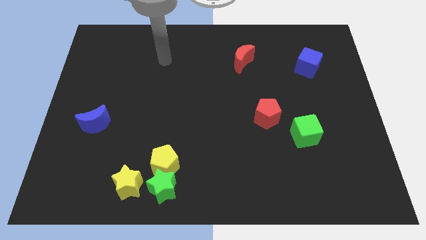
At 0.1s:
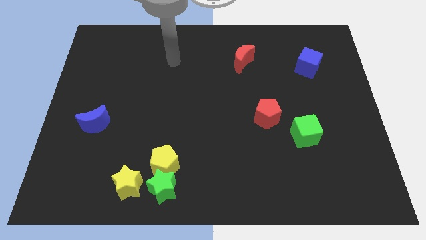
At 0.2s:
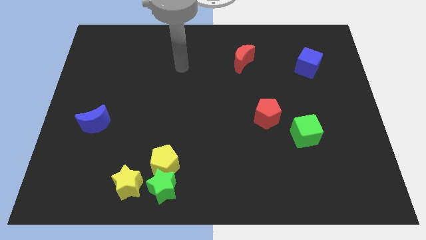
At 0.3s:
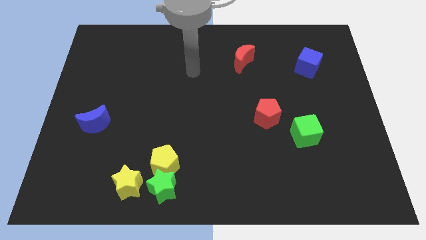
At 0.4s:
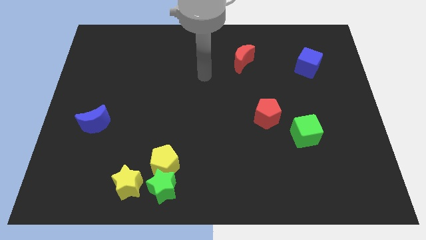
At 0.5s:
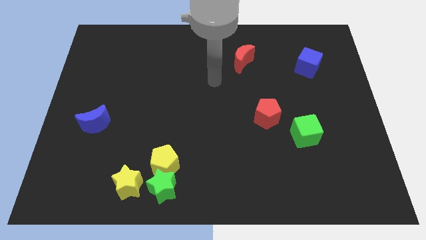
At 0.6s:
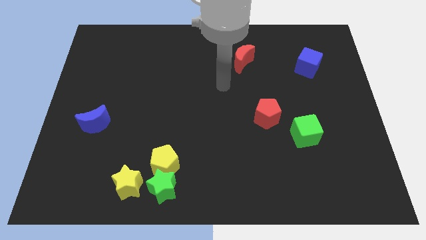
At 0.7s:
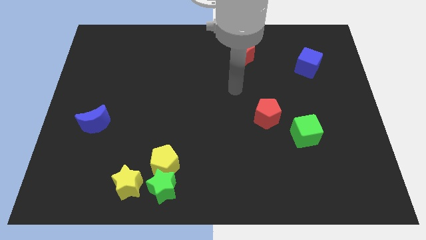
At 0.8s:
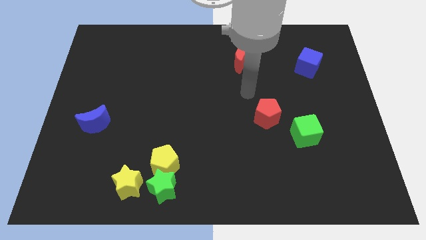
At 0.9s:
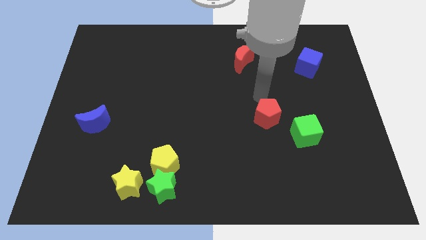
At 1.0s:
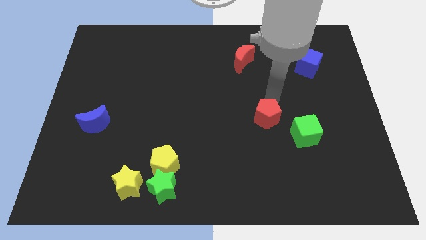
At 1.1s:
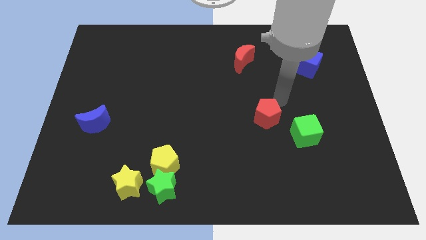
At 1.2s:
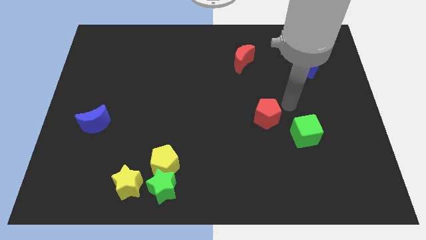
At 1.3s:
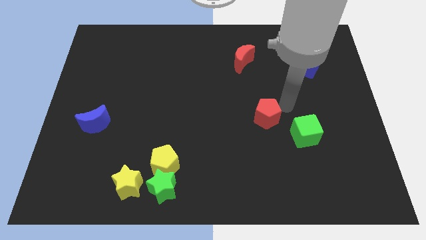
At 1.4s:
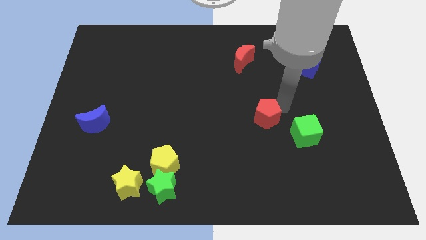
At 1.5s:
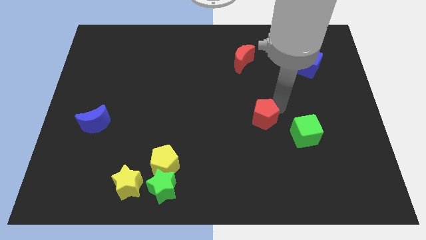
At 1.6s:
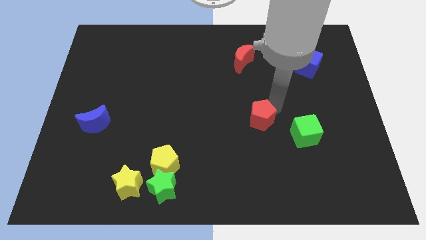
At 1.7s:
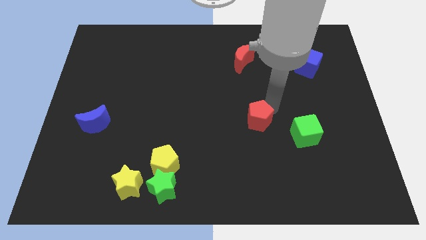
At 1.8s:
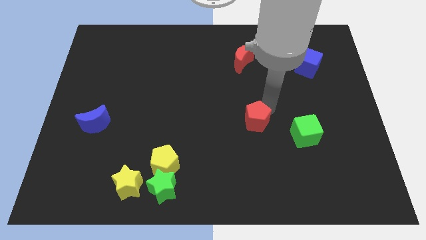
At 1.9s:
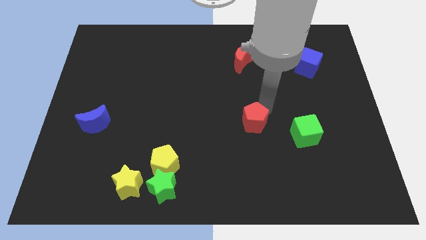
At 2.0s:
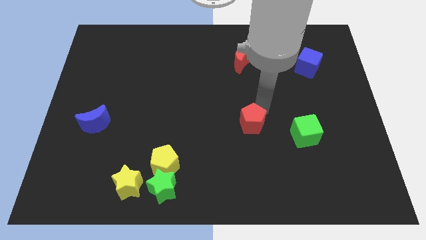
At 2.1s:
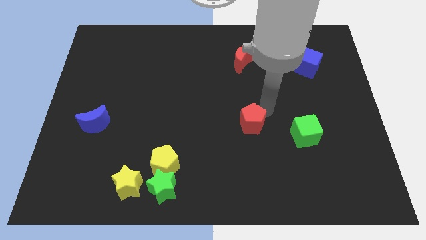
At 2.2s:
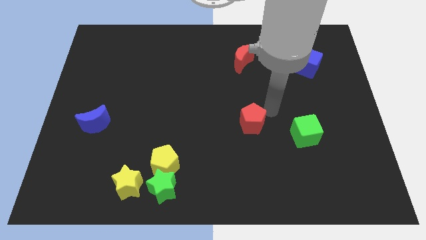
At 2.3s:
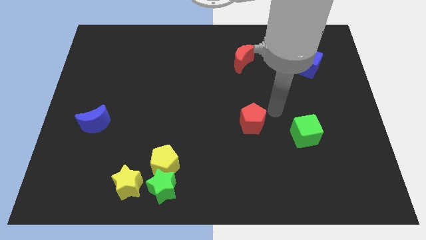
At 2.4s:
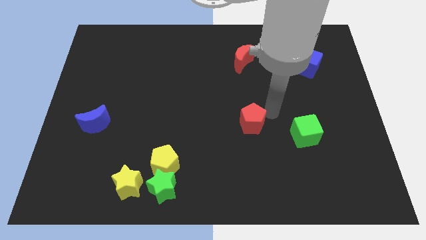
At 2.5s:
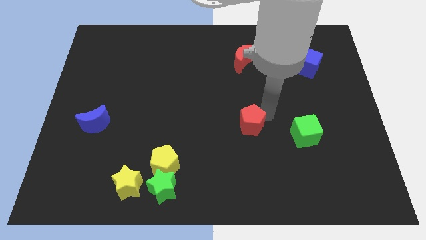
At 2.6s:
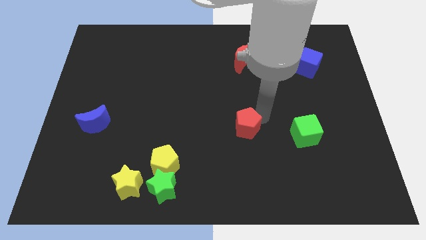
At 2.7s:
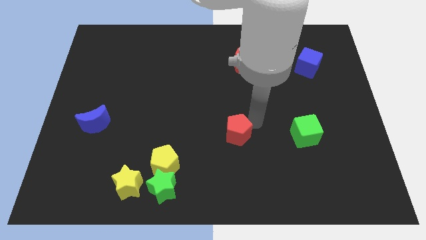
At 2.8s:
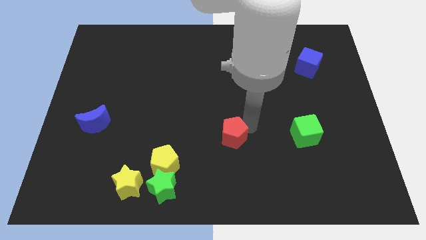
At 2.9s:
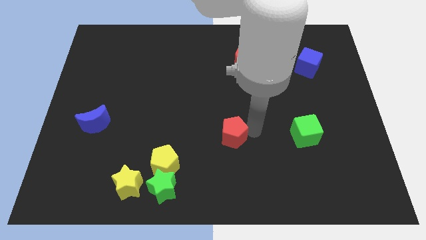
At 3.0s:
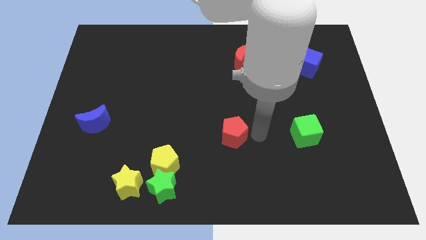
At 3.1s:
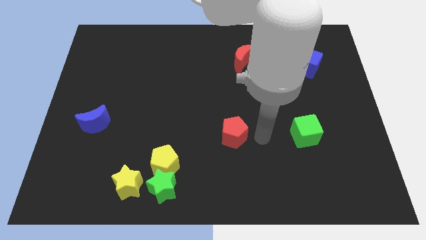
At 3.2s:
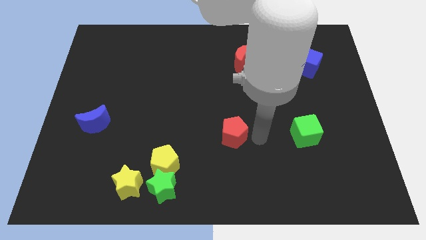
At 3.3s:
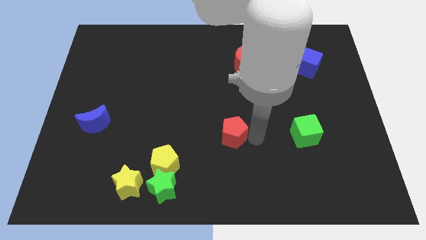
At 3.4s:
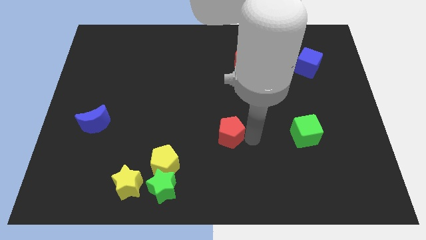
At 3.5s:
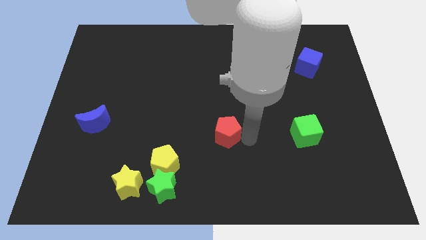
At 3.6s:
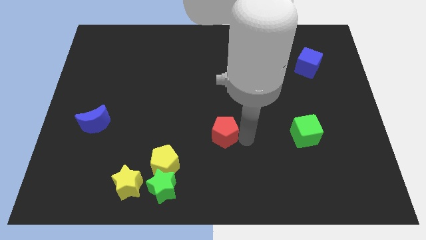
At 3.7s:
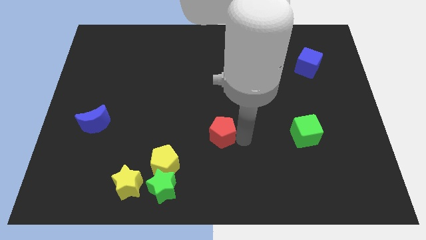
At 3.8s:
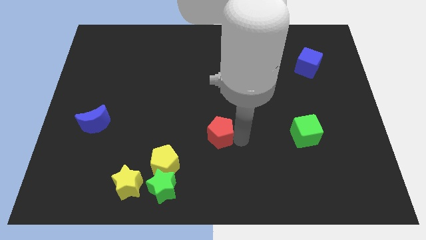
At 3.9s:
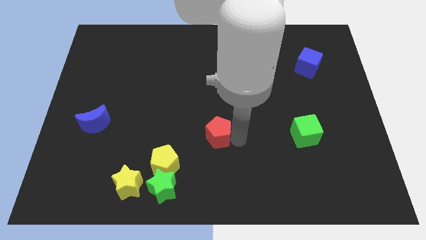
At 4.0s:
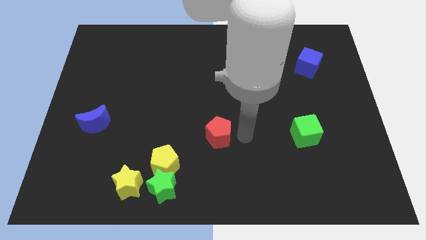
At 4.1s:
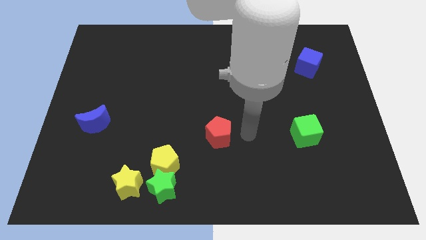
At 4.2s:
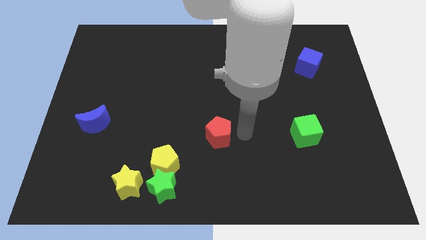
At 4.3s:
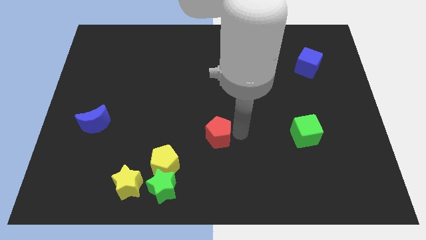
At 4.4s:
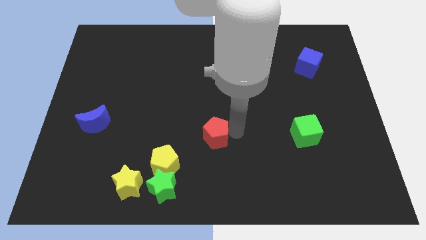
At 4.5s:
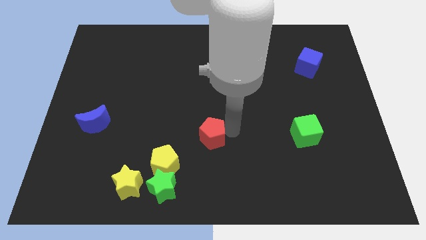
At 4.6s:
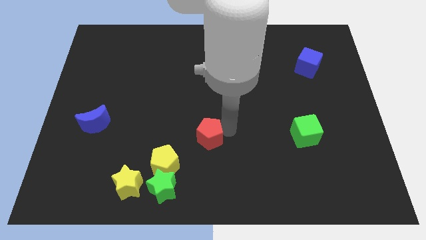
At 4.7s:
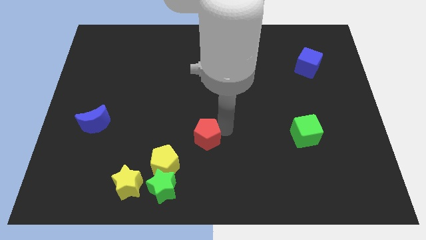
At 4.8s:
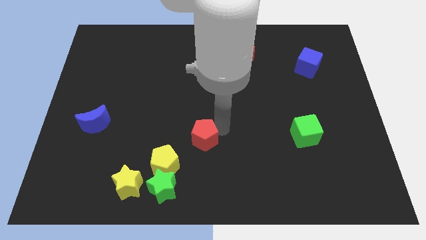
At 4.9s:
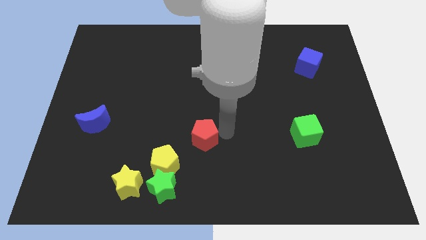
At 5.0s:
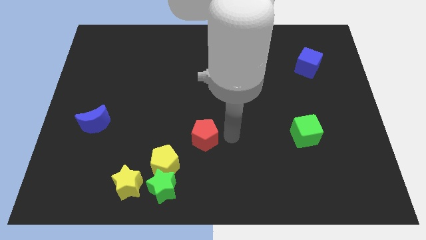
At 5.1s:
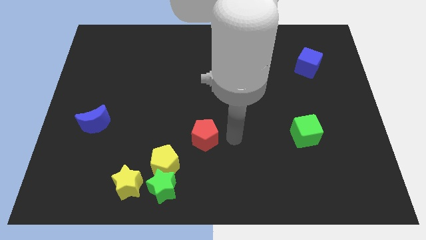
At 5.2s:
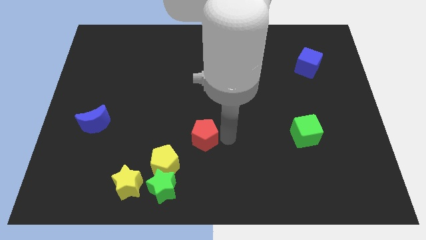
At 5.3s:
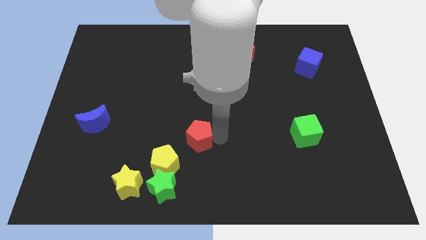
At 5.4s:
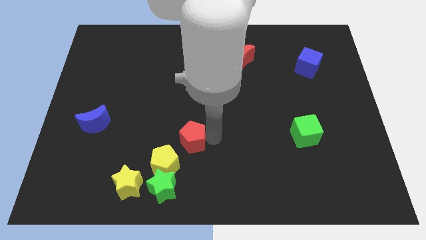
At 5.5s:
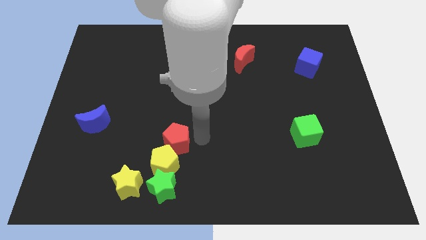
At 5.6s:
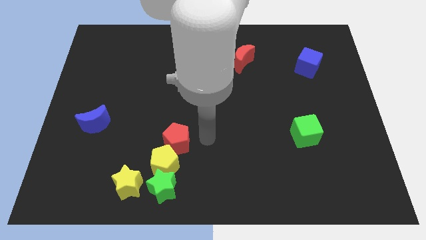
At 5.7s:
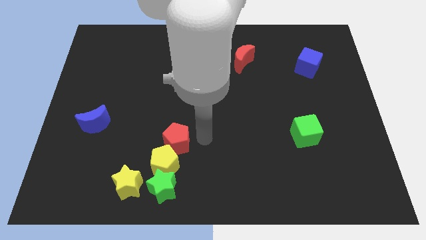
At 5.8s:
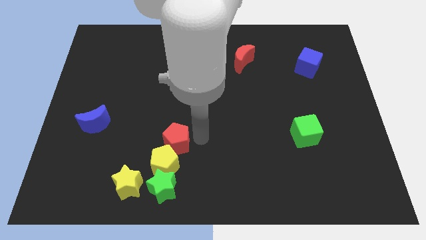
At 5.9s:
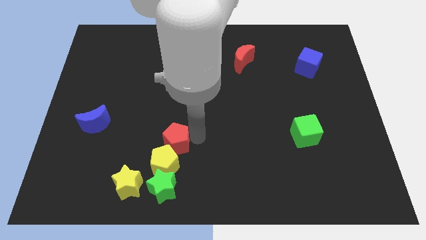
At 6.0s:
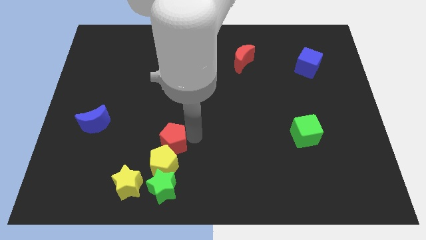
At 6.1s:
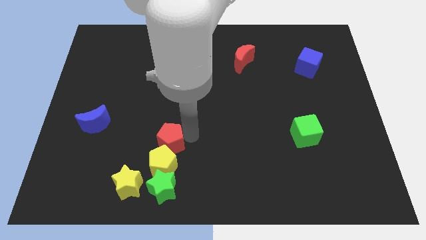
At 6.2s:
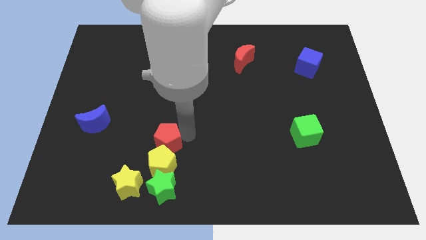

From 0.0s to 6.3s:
push the red pentagon diagonally up and to the left of the yellow pentagon

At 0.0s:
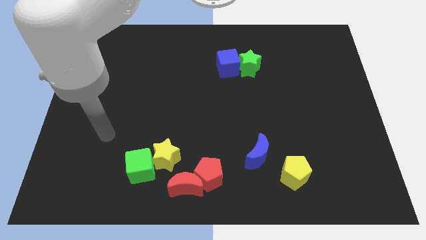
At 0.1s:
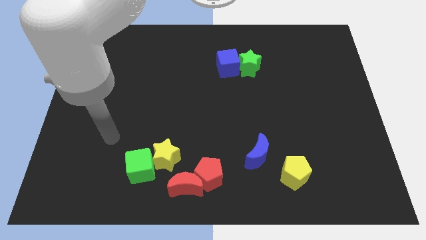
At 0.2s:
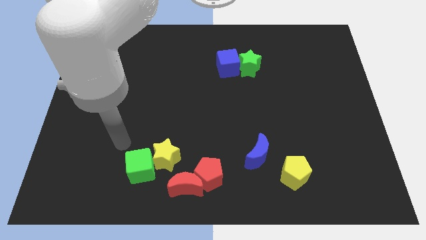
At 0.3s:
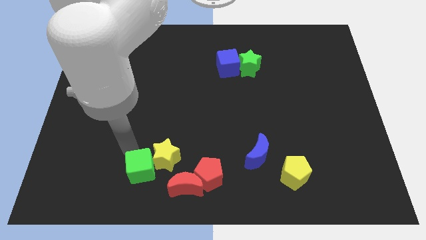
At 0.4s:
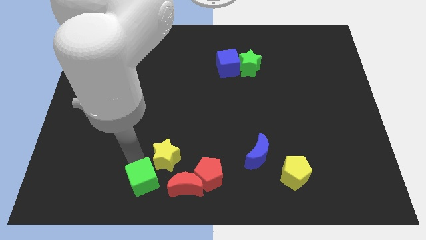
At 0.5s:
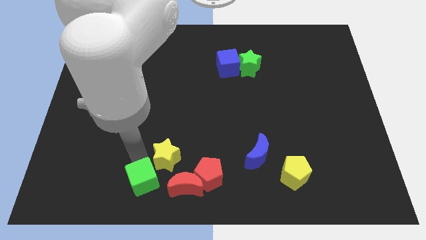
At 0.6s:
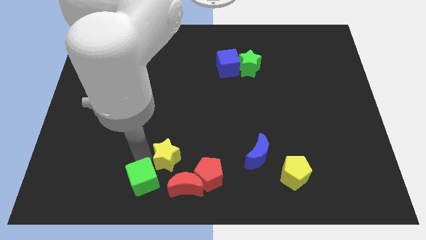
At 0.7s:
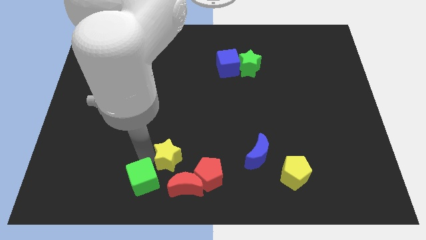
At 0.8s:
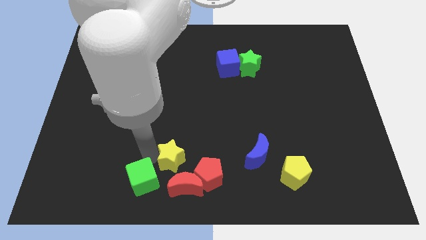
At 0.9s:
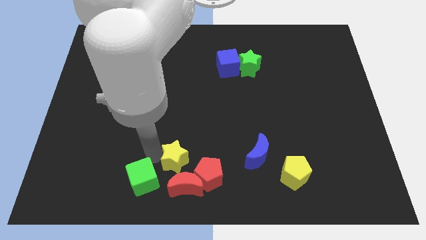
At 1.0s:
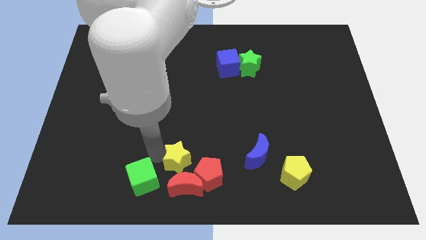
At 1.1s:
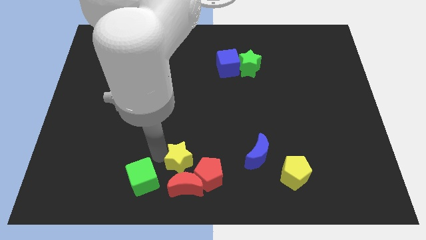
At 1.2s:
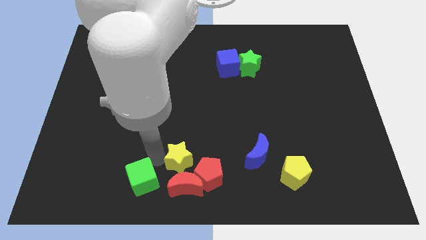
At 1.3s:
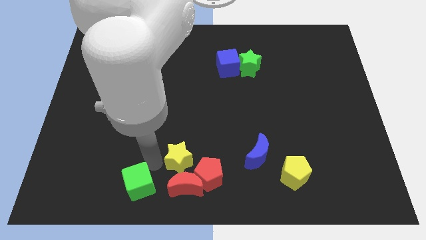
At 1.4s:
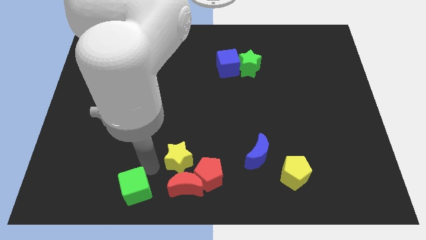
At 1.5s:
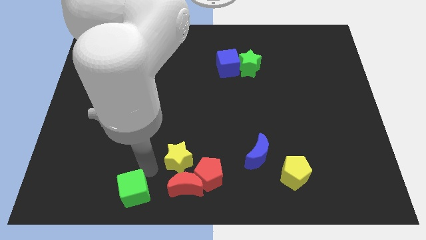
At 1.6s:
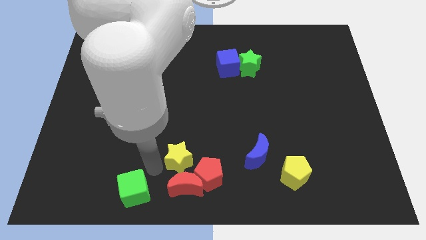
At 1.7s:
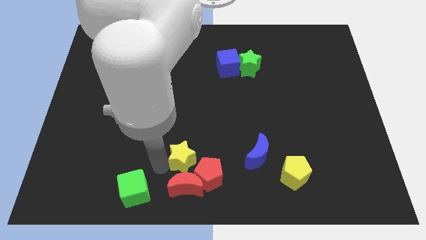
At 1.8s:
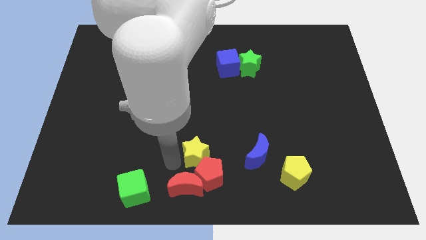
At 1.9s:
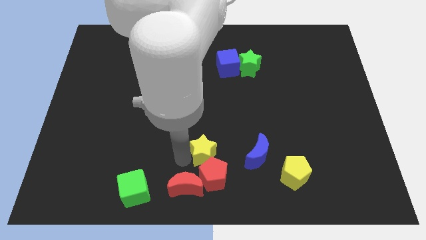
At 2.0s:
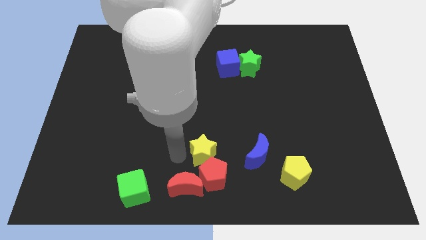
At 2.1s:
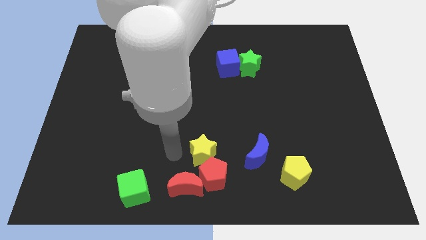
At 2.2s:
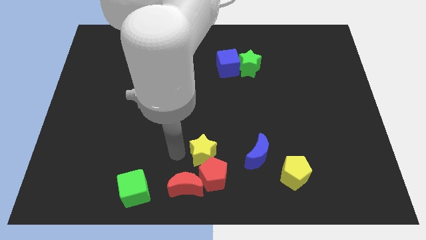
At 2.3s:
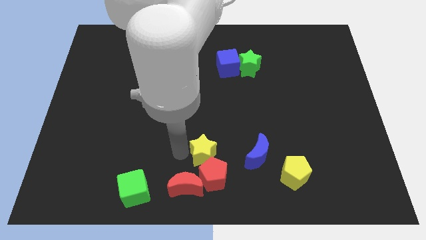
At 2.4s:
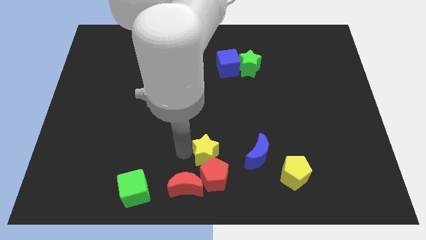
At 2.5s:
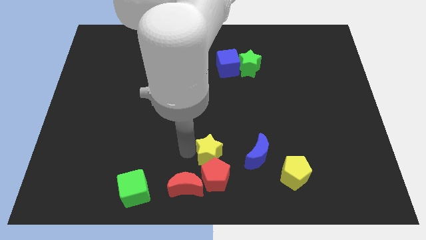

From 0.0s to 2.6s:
move the yellow star to the top right of the red pentagon
